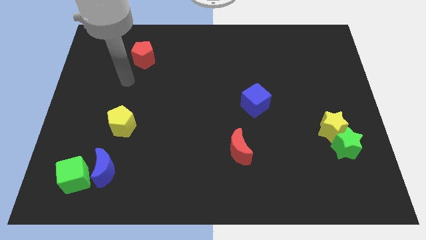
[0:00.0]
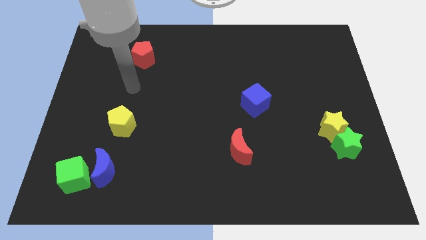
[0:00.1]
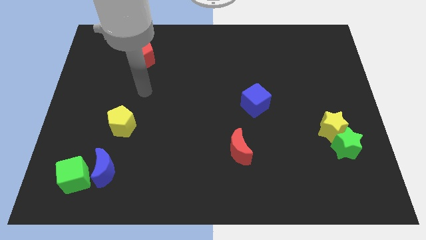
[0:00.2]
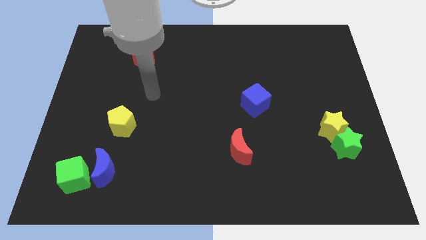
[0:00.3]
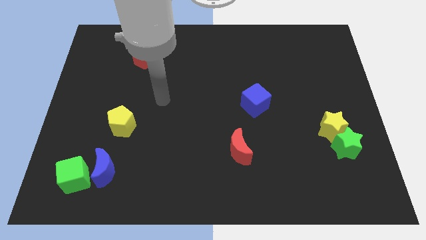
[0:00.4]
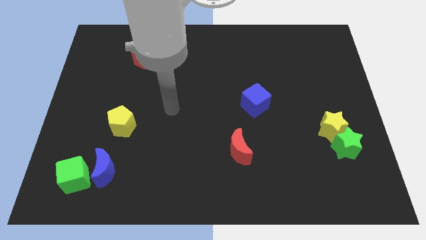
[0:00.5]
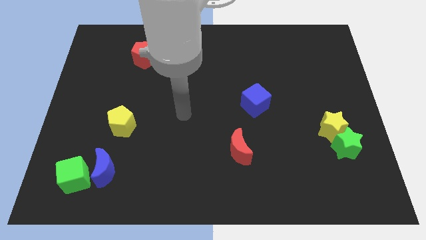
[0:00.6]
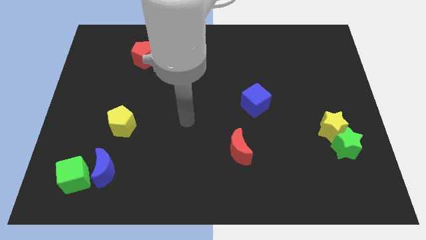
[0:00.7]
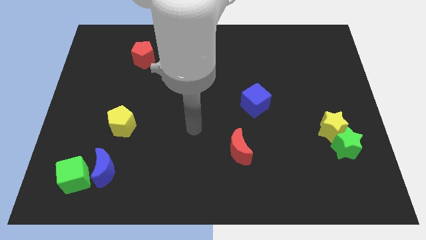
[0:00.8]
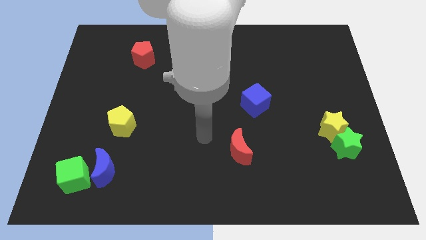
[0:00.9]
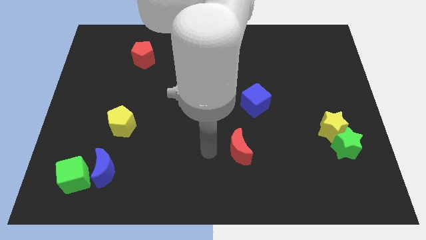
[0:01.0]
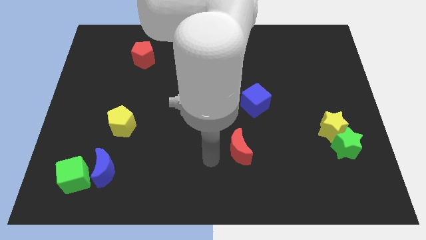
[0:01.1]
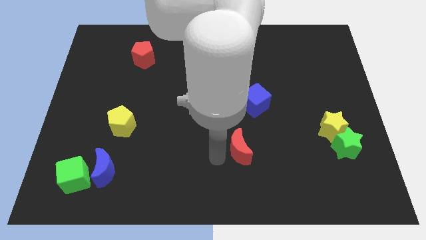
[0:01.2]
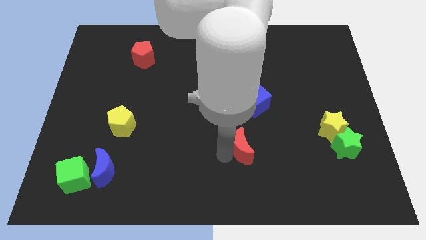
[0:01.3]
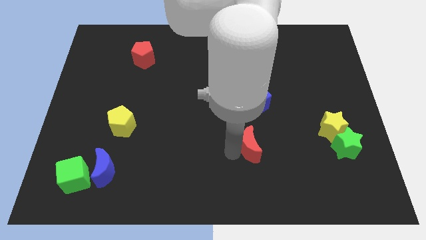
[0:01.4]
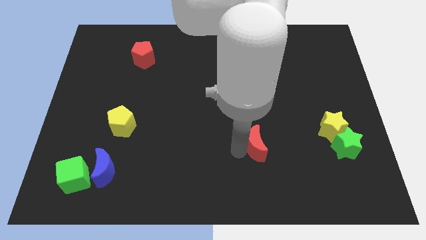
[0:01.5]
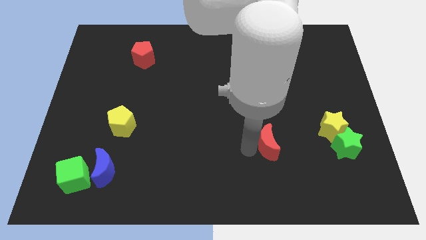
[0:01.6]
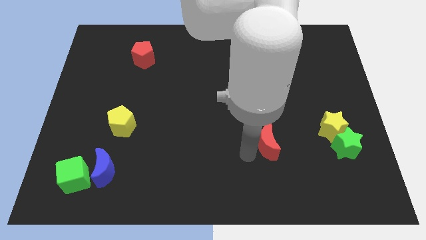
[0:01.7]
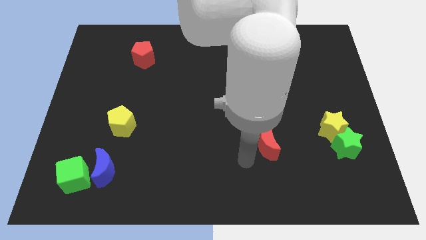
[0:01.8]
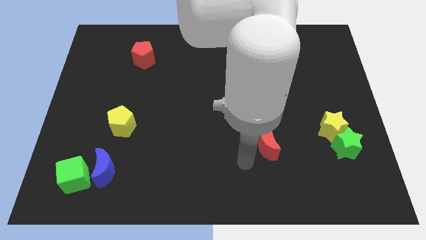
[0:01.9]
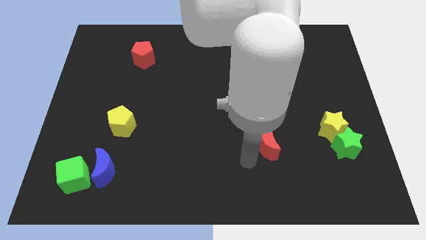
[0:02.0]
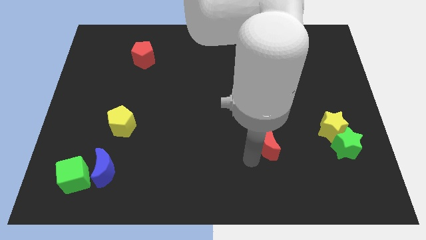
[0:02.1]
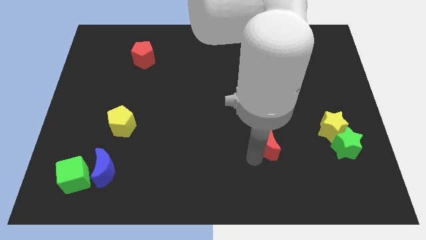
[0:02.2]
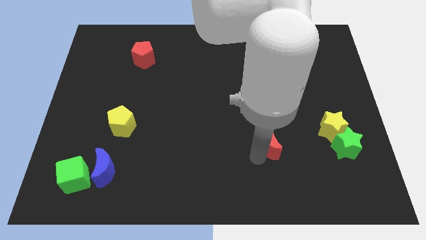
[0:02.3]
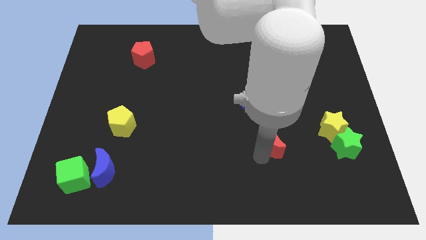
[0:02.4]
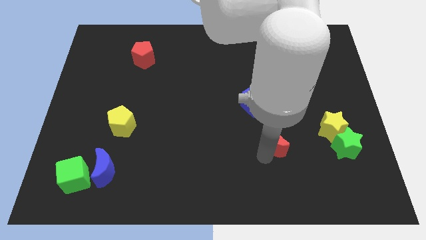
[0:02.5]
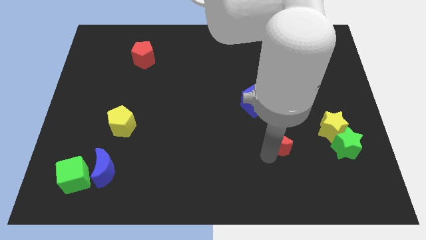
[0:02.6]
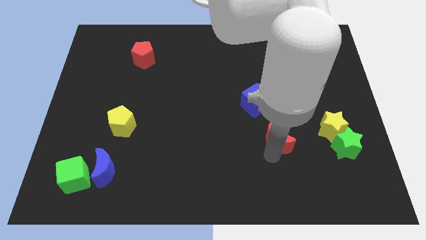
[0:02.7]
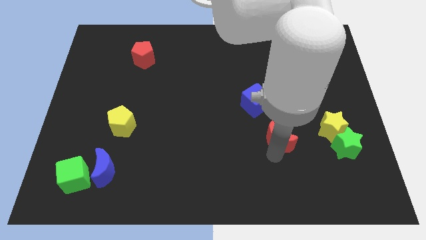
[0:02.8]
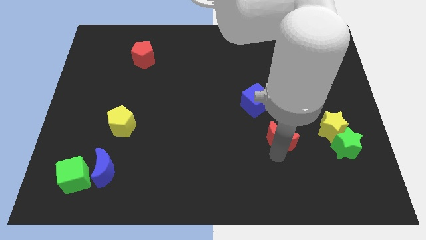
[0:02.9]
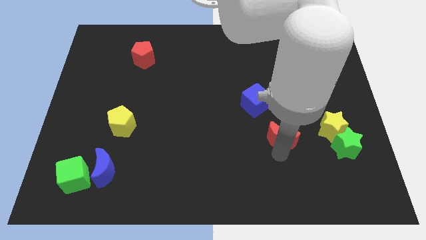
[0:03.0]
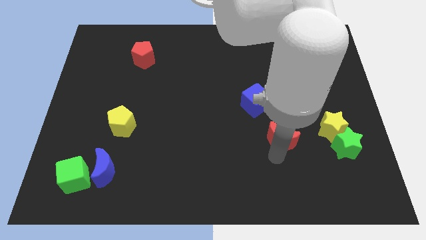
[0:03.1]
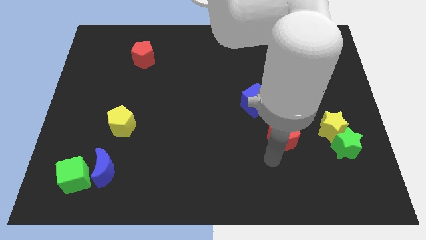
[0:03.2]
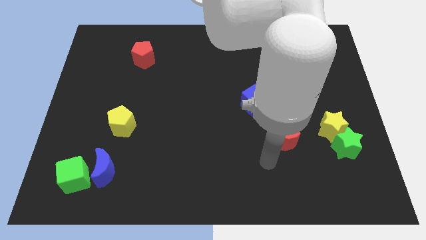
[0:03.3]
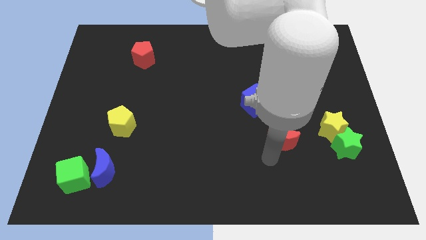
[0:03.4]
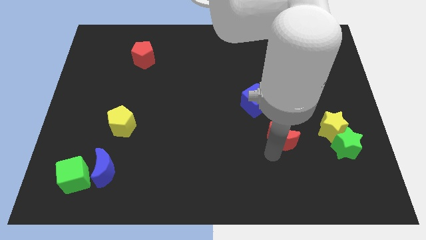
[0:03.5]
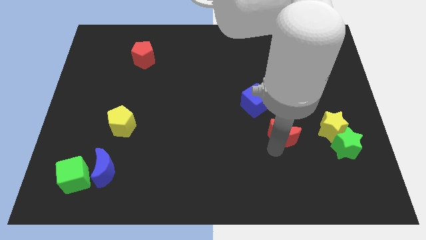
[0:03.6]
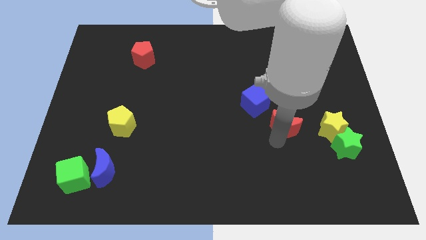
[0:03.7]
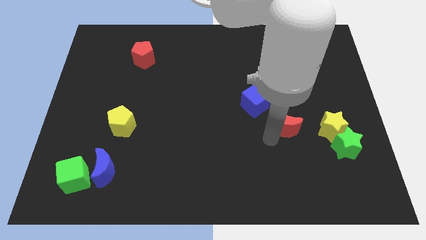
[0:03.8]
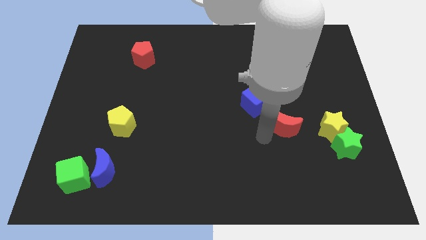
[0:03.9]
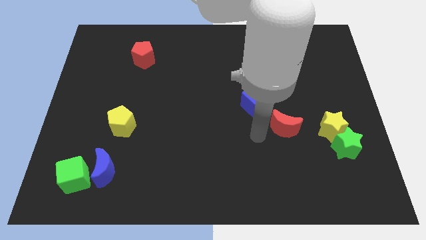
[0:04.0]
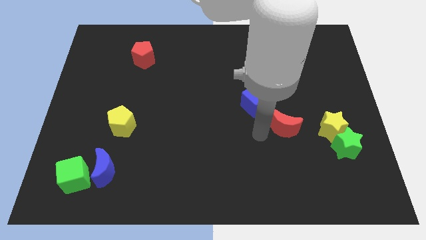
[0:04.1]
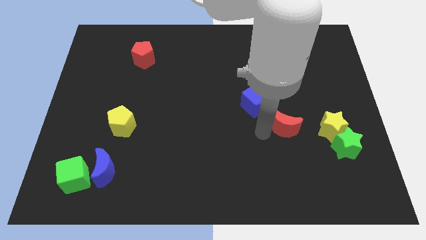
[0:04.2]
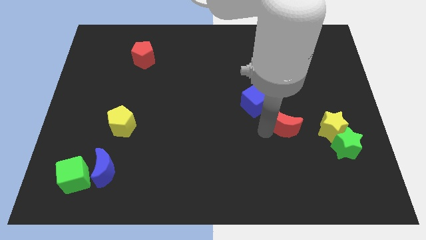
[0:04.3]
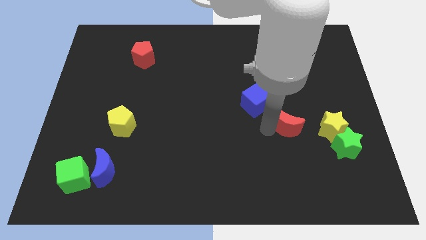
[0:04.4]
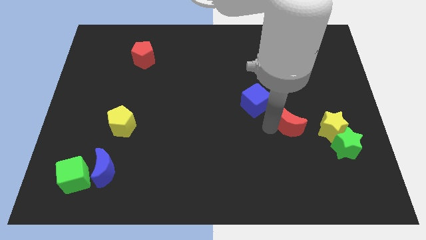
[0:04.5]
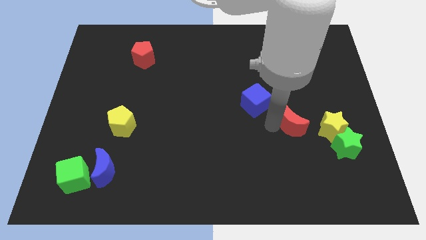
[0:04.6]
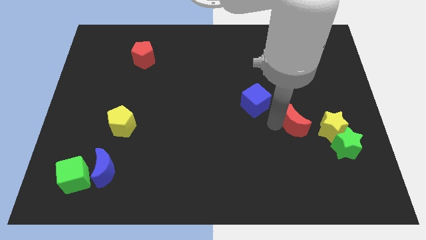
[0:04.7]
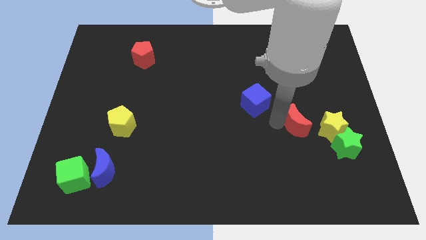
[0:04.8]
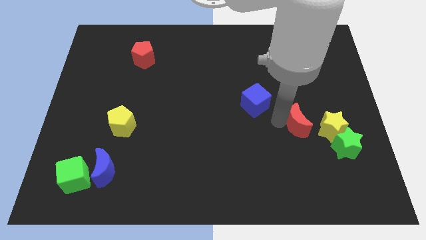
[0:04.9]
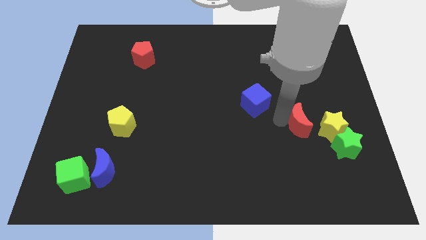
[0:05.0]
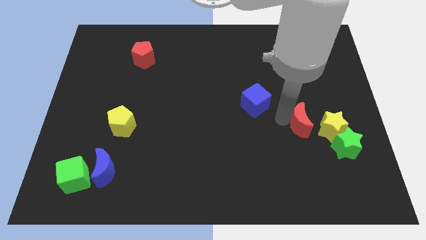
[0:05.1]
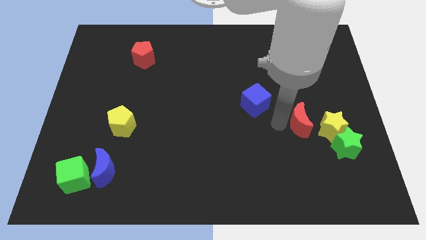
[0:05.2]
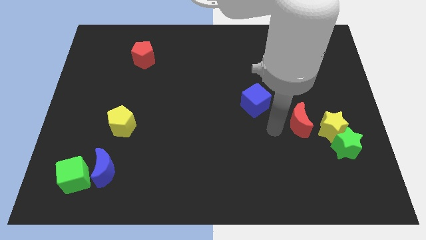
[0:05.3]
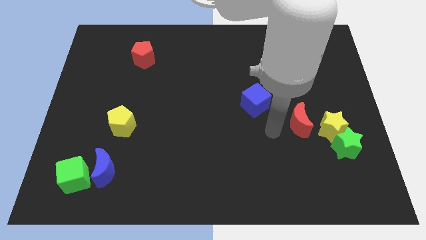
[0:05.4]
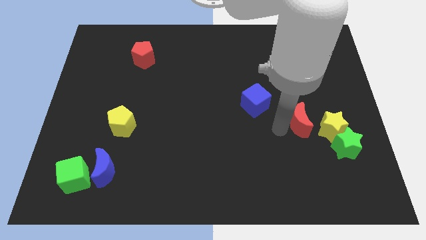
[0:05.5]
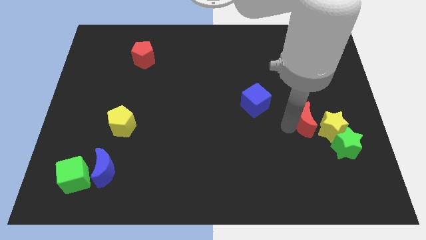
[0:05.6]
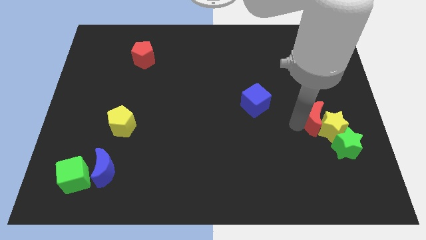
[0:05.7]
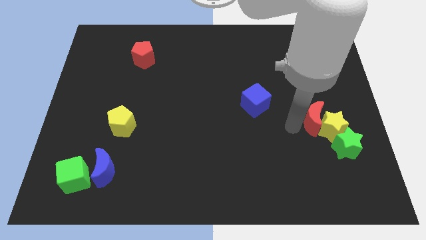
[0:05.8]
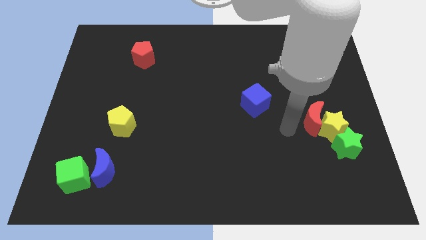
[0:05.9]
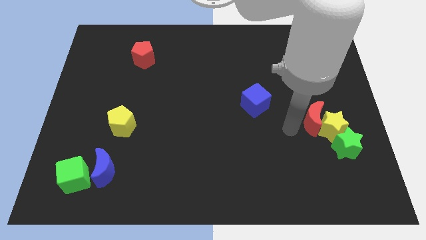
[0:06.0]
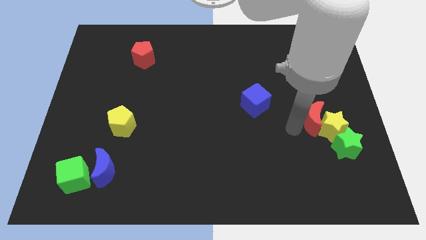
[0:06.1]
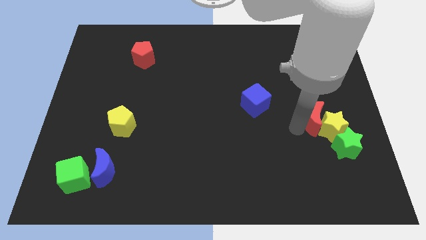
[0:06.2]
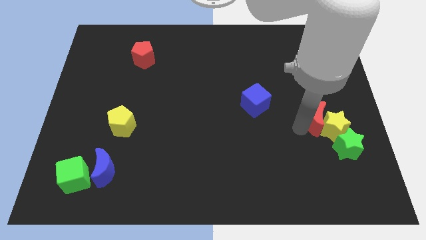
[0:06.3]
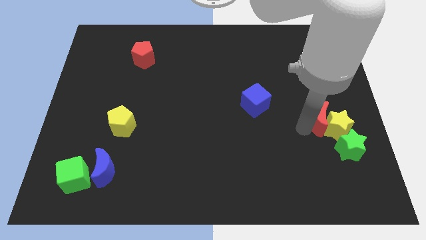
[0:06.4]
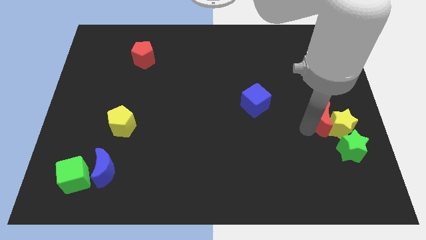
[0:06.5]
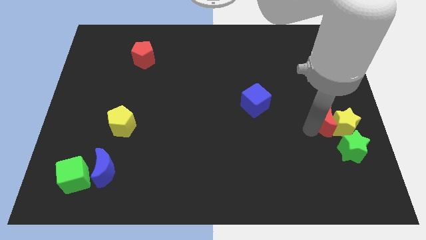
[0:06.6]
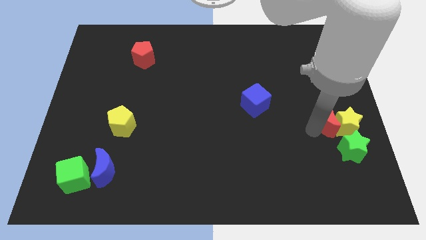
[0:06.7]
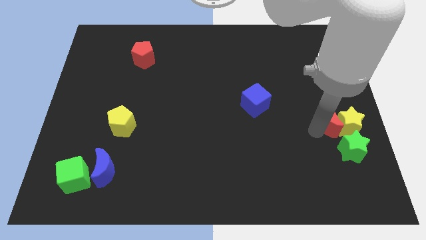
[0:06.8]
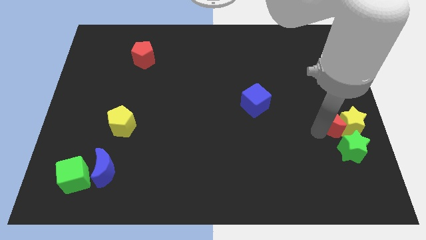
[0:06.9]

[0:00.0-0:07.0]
put the red moon to the right side of the board
